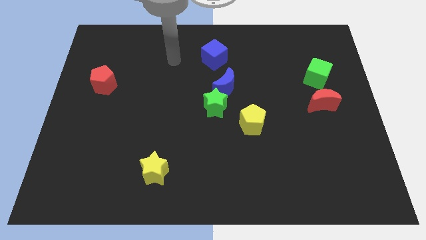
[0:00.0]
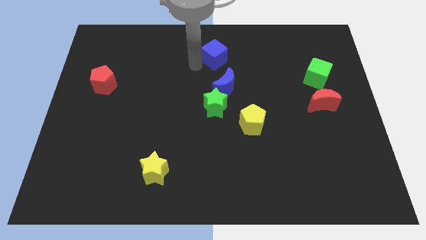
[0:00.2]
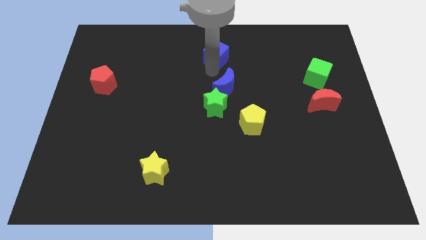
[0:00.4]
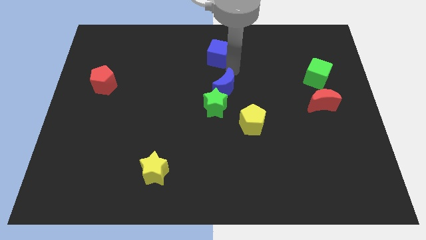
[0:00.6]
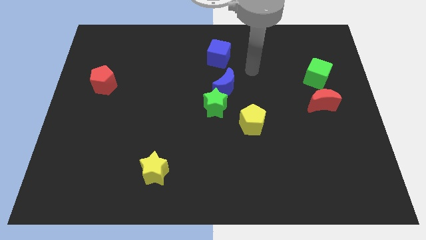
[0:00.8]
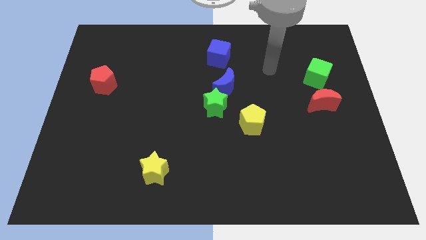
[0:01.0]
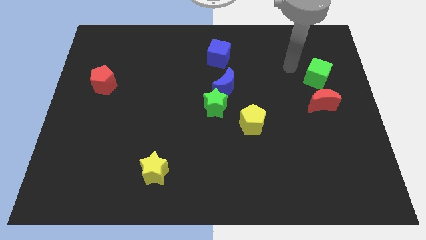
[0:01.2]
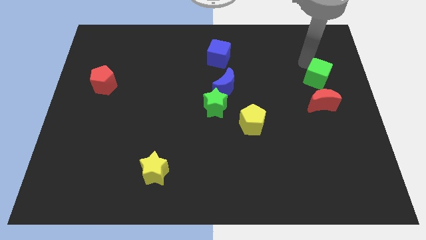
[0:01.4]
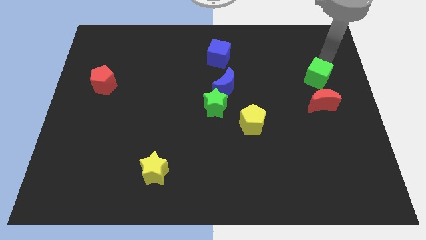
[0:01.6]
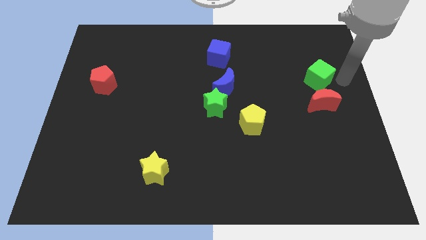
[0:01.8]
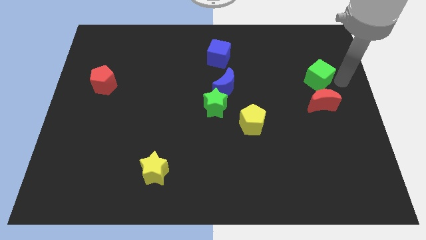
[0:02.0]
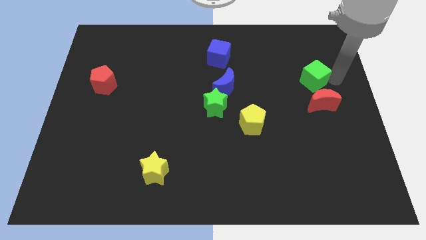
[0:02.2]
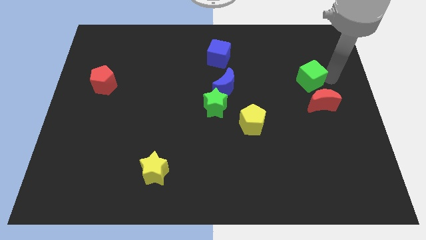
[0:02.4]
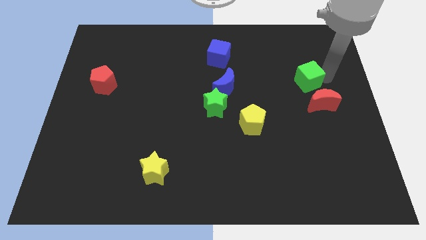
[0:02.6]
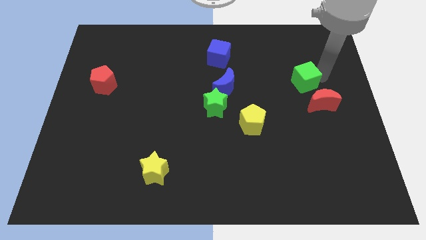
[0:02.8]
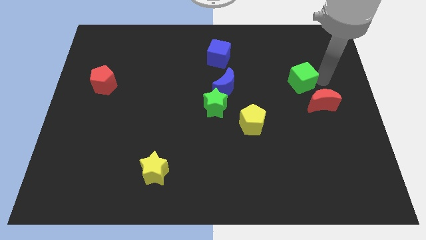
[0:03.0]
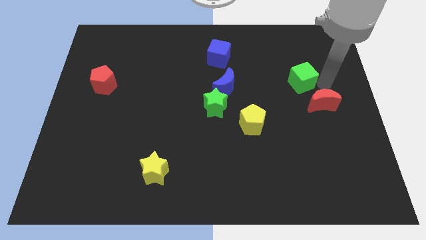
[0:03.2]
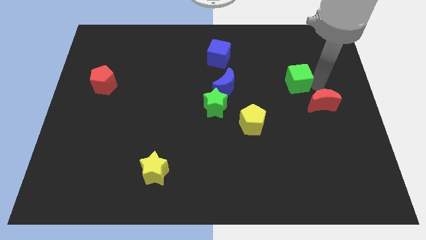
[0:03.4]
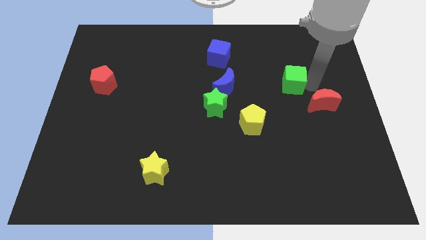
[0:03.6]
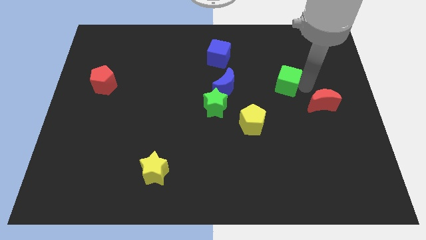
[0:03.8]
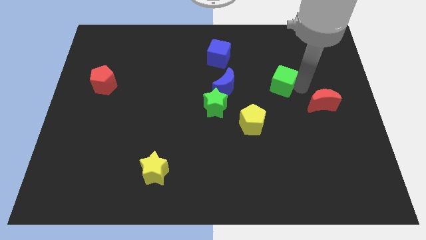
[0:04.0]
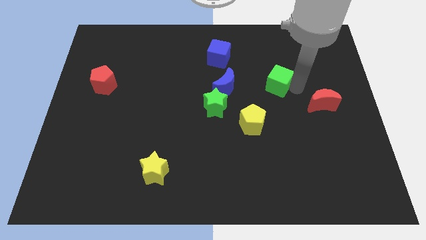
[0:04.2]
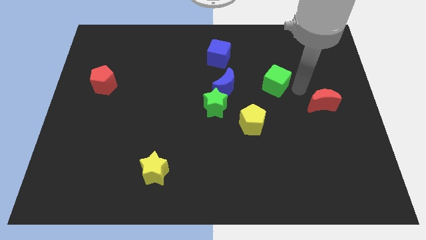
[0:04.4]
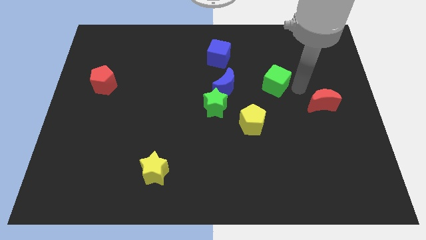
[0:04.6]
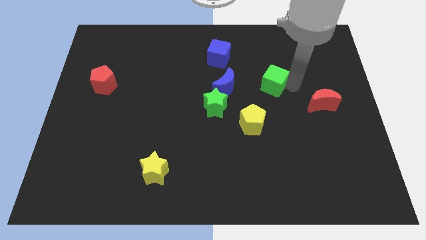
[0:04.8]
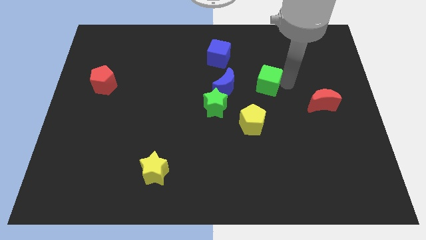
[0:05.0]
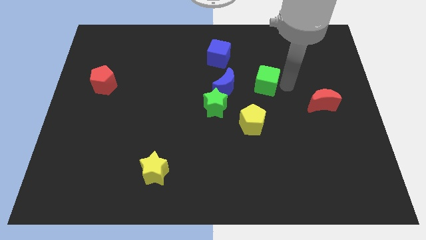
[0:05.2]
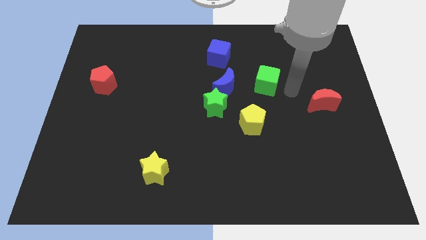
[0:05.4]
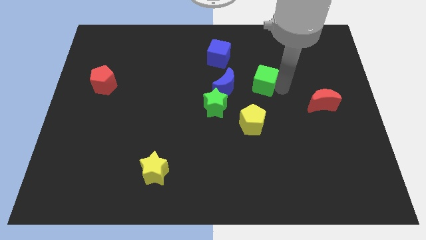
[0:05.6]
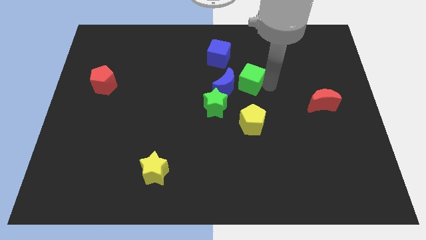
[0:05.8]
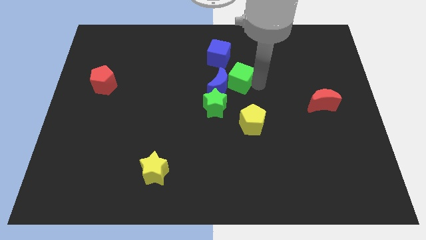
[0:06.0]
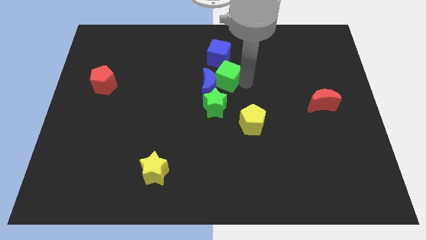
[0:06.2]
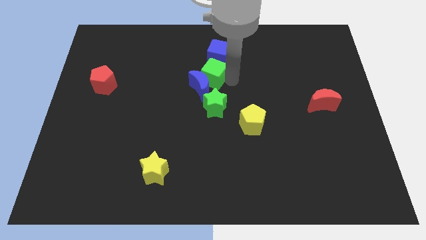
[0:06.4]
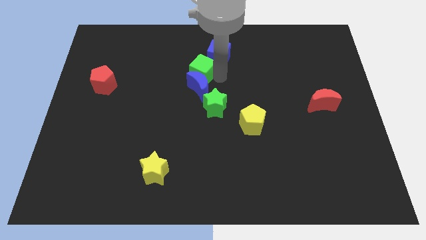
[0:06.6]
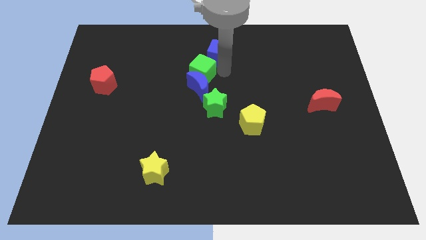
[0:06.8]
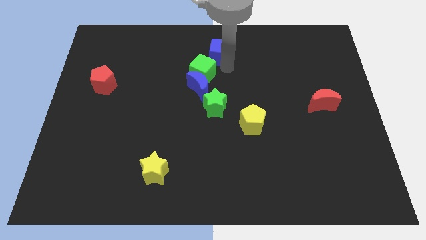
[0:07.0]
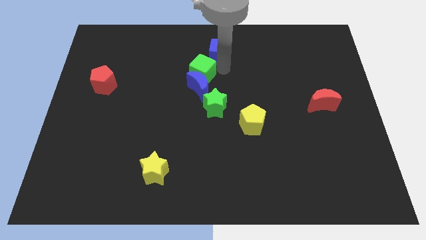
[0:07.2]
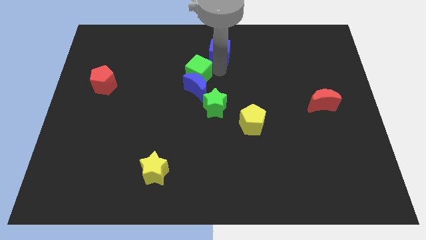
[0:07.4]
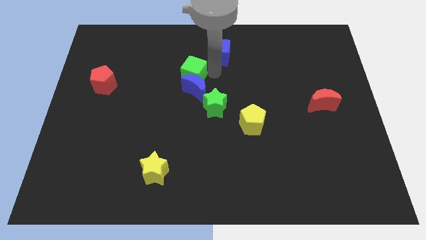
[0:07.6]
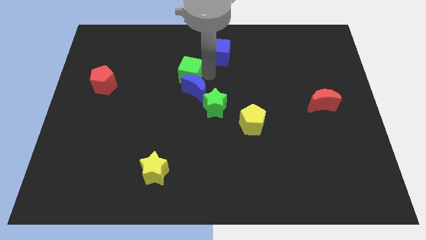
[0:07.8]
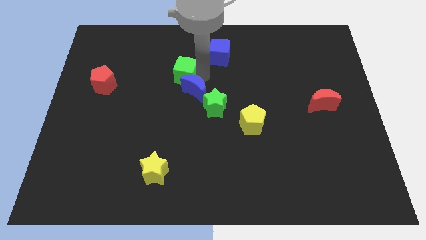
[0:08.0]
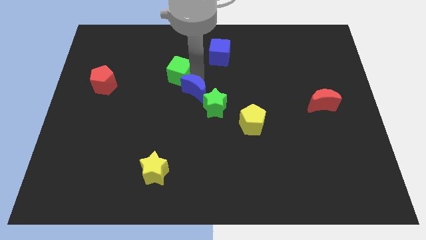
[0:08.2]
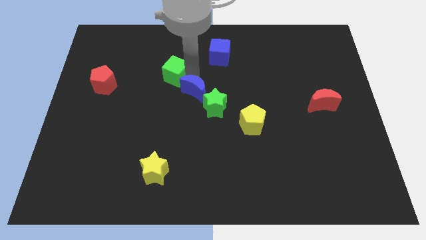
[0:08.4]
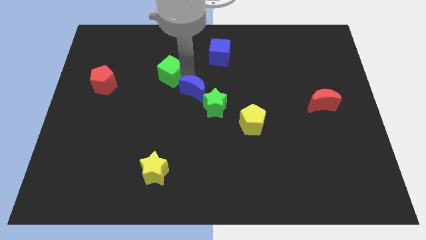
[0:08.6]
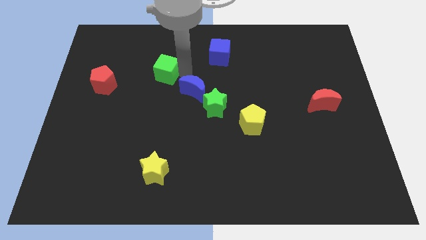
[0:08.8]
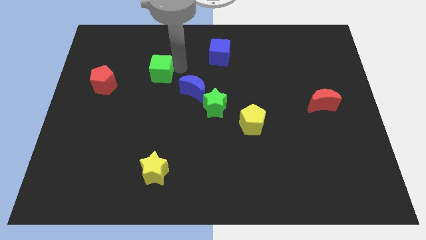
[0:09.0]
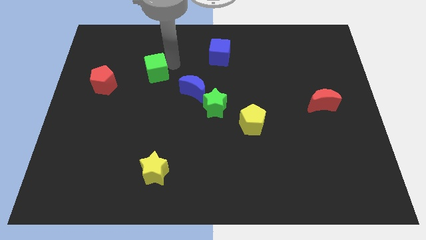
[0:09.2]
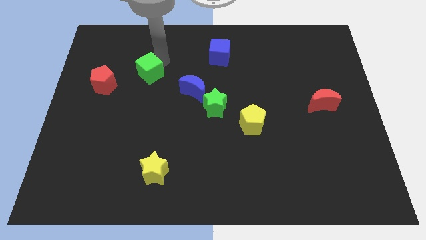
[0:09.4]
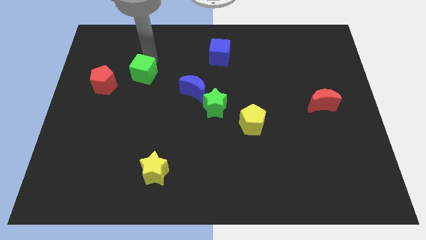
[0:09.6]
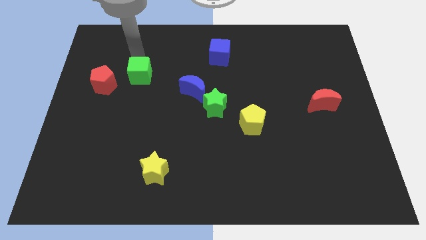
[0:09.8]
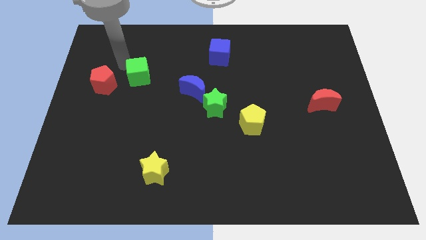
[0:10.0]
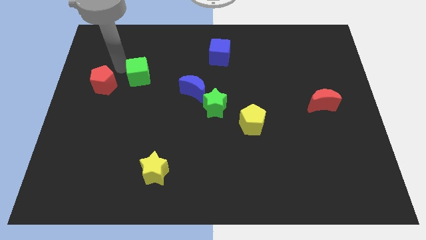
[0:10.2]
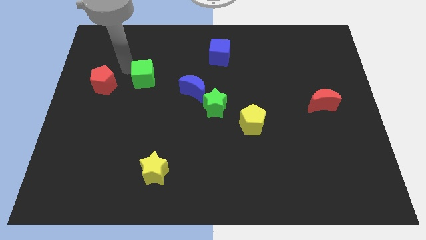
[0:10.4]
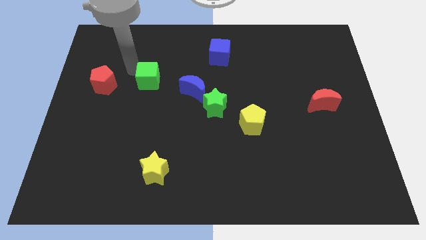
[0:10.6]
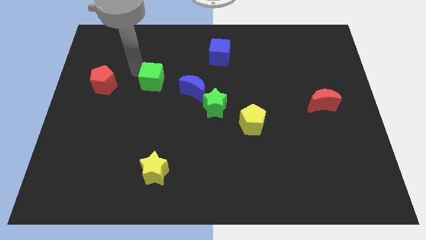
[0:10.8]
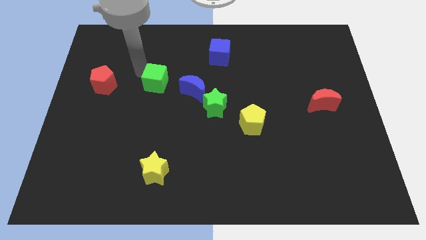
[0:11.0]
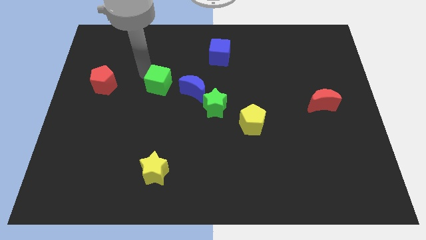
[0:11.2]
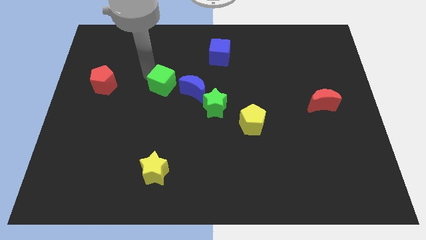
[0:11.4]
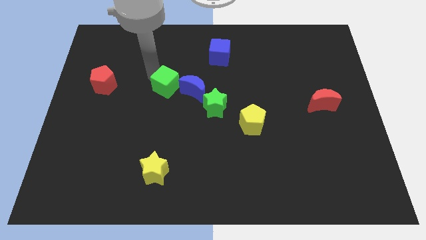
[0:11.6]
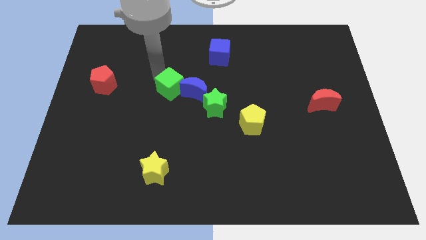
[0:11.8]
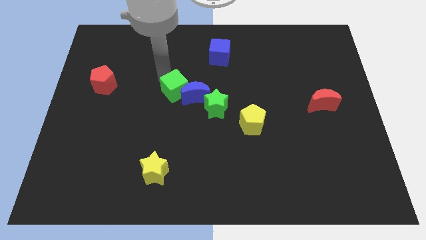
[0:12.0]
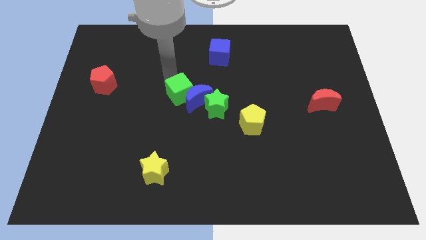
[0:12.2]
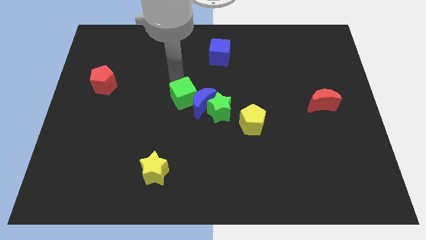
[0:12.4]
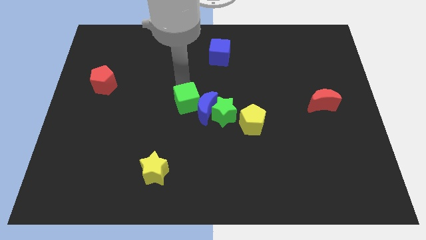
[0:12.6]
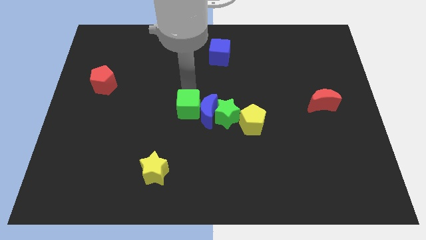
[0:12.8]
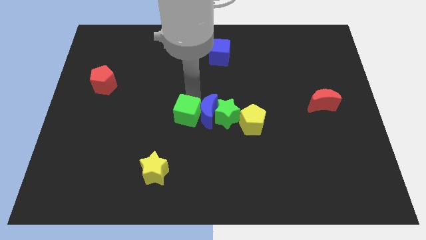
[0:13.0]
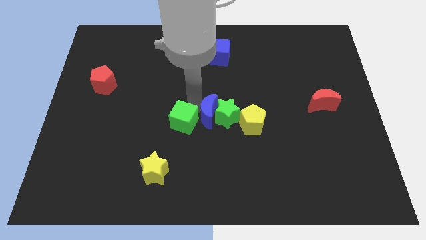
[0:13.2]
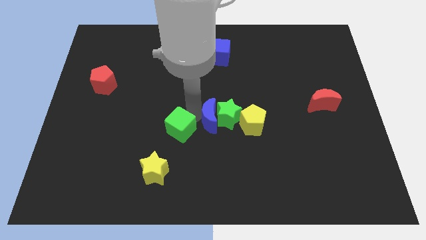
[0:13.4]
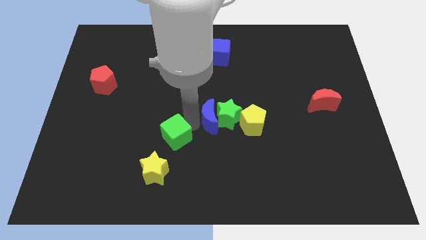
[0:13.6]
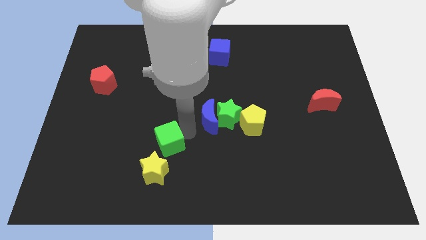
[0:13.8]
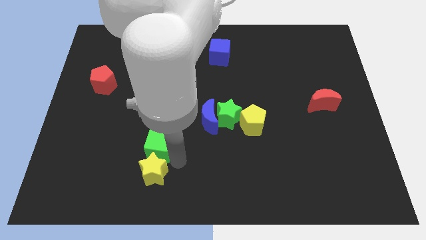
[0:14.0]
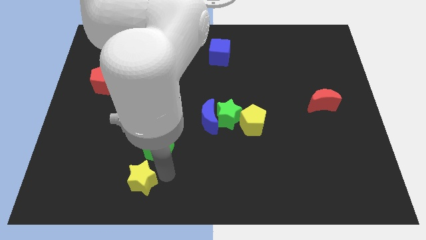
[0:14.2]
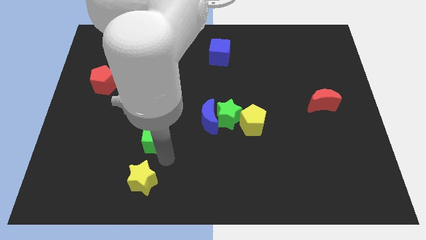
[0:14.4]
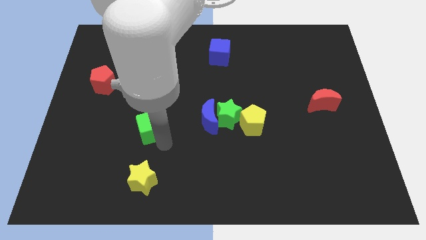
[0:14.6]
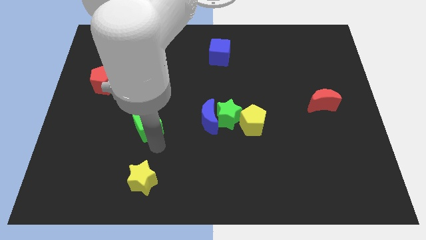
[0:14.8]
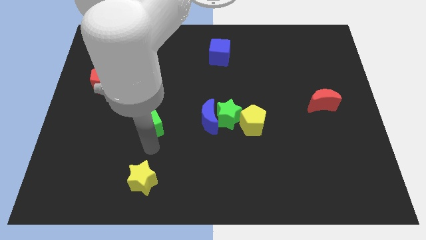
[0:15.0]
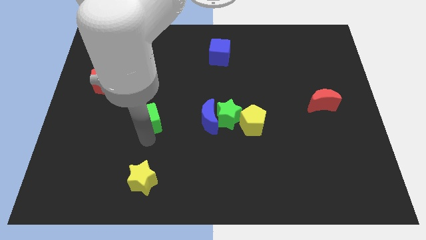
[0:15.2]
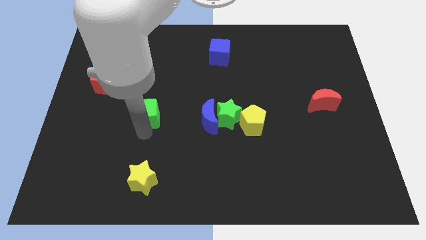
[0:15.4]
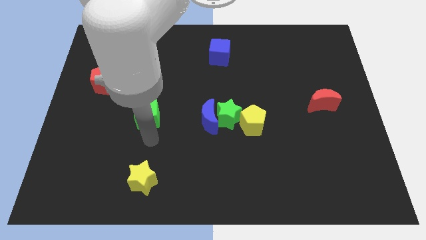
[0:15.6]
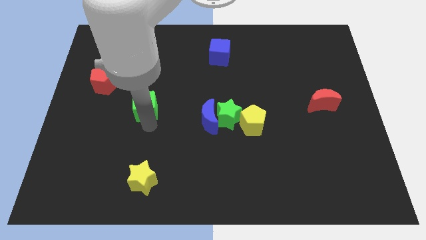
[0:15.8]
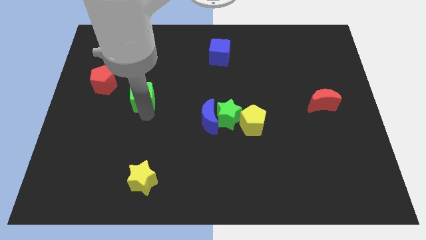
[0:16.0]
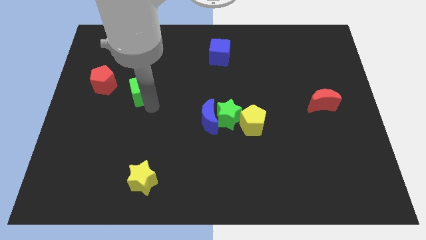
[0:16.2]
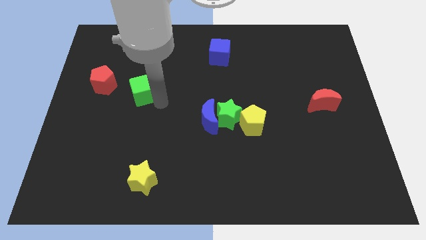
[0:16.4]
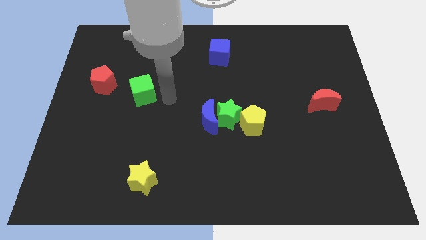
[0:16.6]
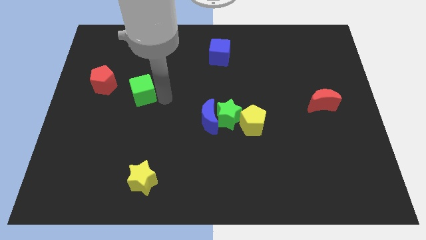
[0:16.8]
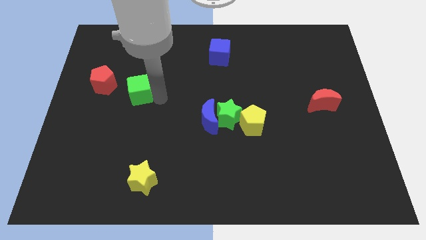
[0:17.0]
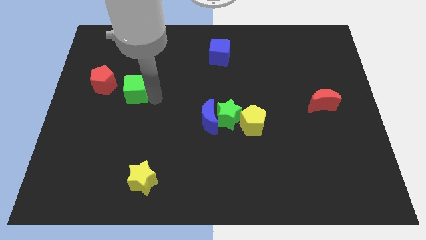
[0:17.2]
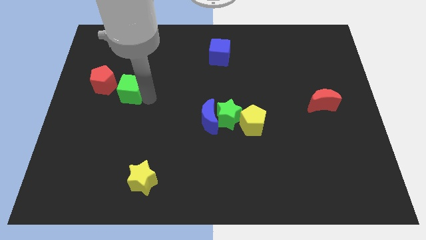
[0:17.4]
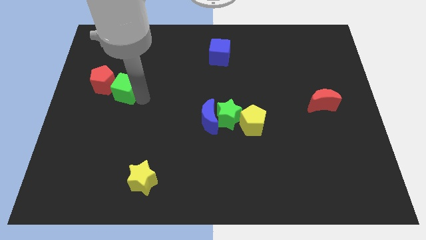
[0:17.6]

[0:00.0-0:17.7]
push the green cube close to the red pentagon
